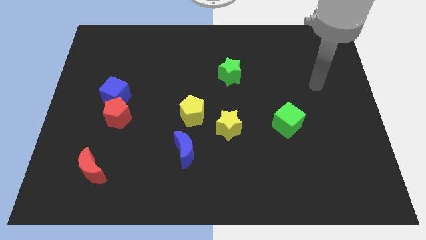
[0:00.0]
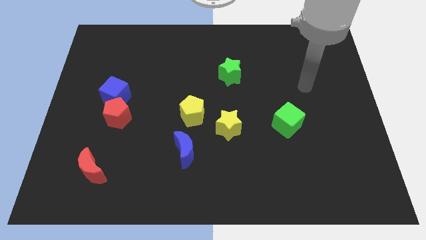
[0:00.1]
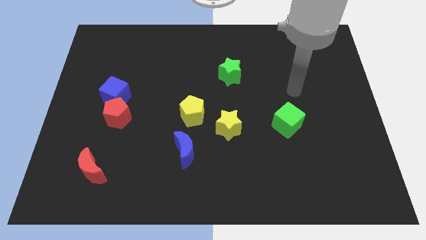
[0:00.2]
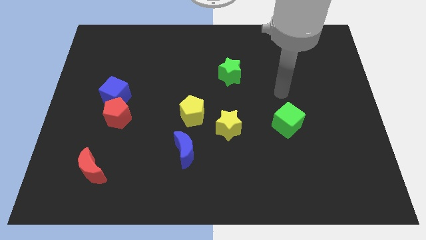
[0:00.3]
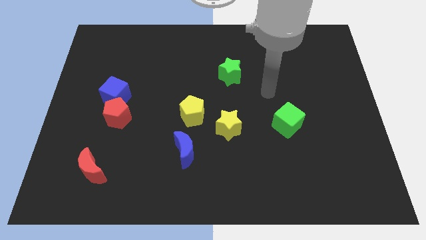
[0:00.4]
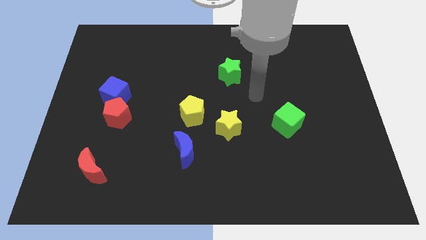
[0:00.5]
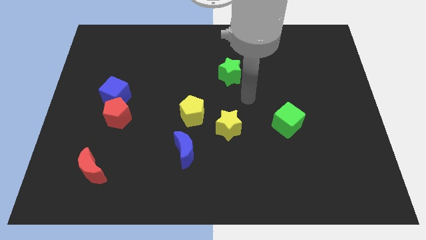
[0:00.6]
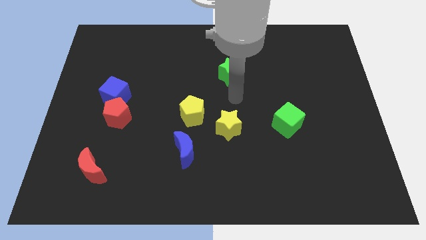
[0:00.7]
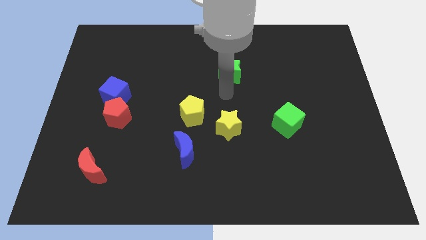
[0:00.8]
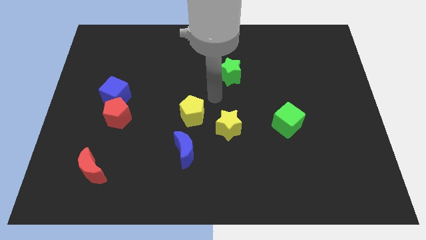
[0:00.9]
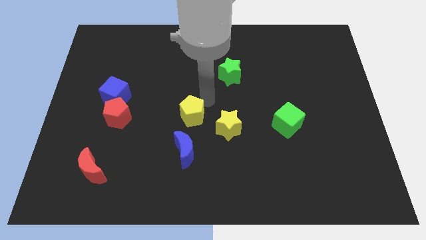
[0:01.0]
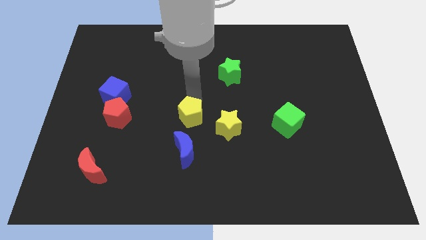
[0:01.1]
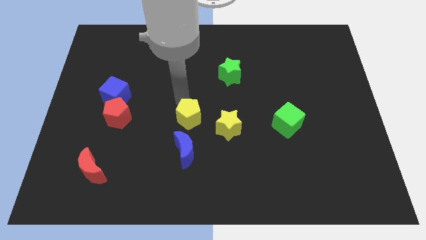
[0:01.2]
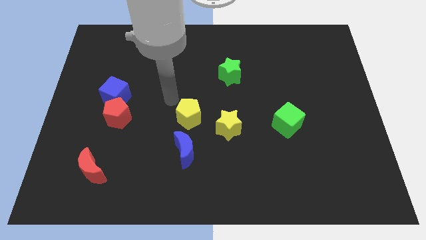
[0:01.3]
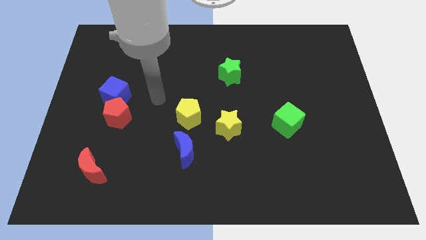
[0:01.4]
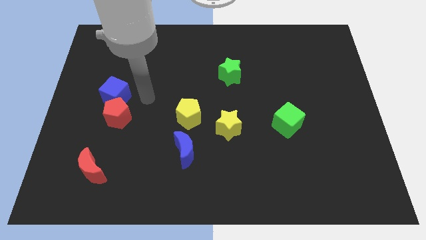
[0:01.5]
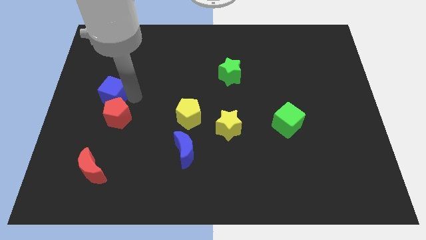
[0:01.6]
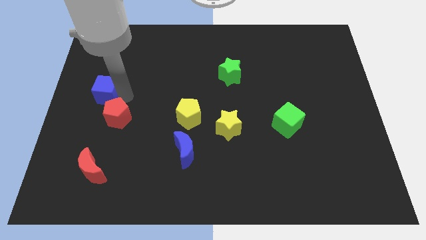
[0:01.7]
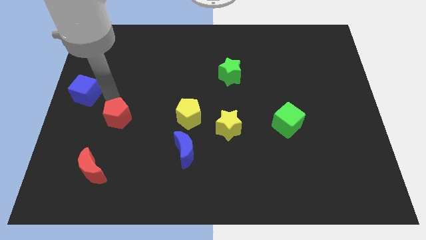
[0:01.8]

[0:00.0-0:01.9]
pull the red pentagon apart from the blue cube

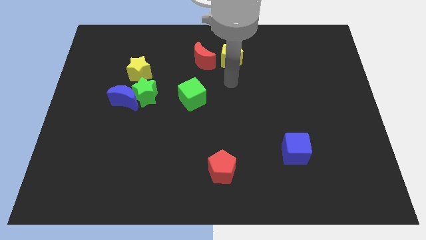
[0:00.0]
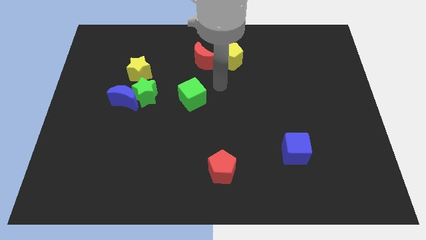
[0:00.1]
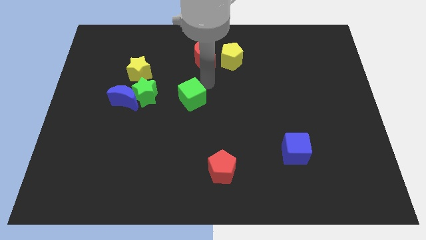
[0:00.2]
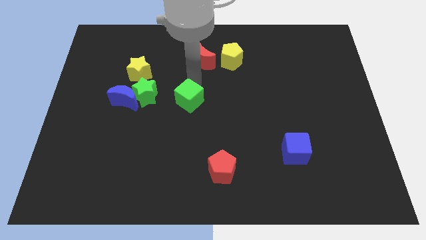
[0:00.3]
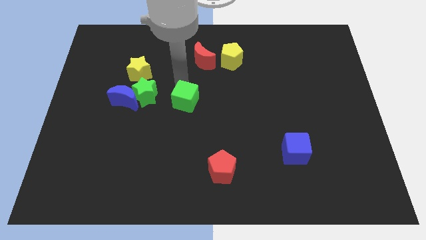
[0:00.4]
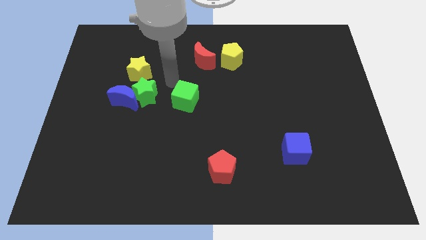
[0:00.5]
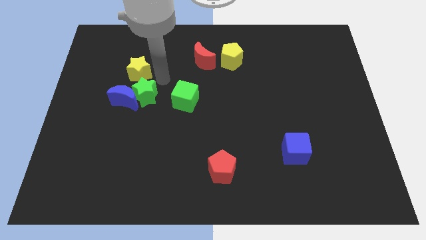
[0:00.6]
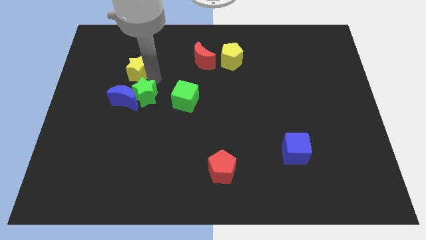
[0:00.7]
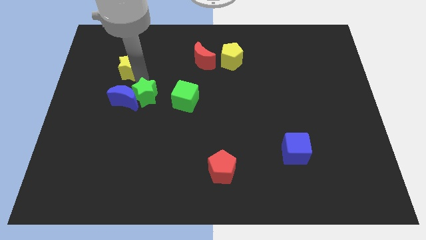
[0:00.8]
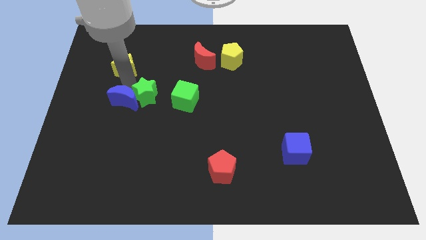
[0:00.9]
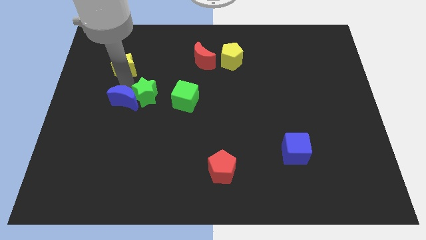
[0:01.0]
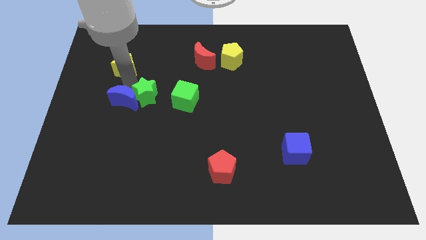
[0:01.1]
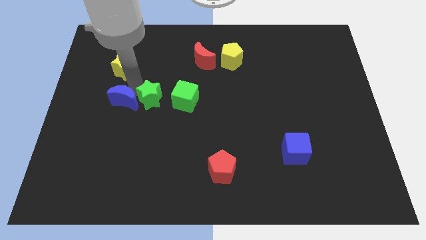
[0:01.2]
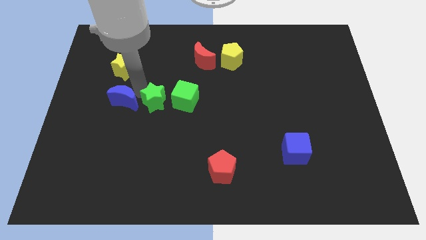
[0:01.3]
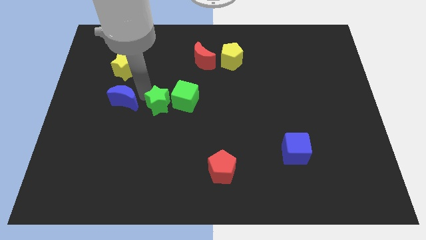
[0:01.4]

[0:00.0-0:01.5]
separate the green star from the blue moon and yellow star

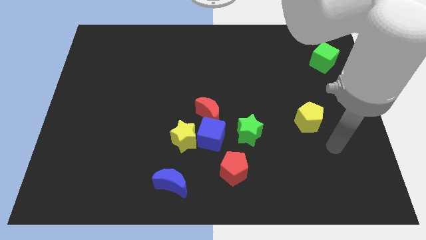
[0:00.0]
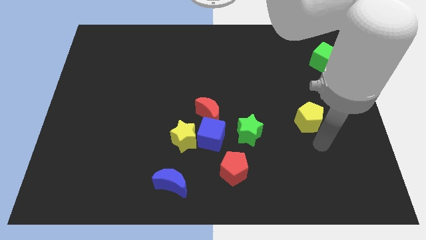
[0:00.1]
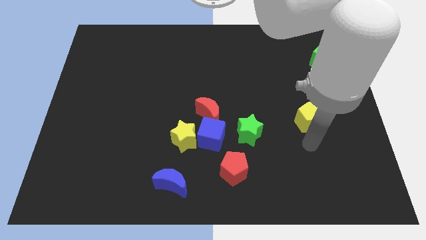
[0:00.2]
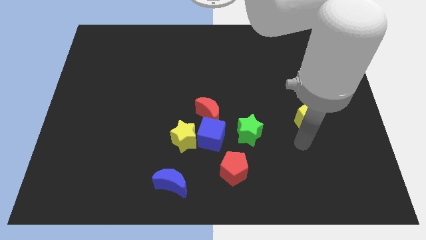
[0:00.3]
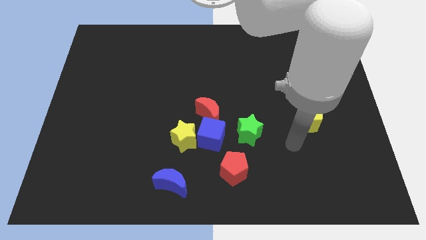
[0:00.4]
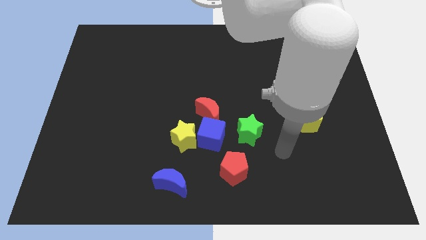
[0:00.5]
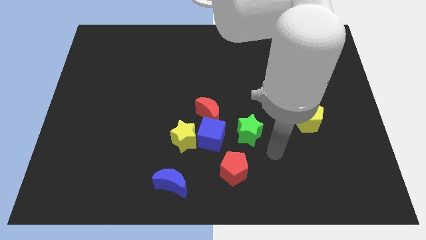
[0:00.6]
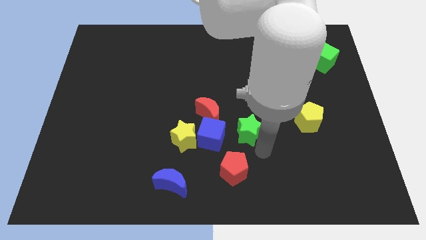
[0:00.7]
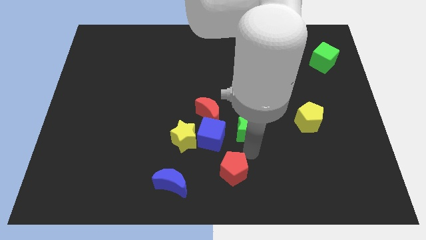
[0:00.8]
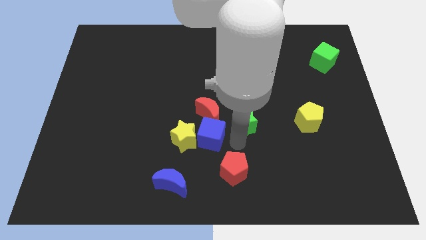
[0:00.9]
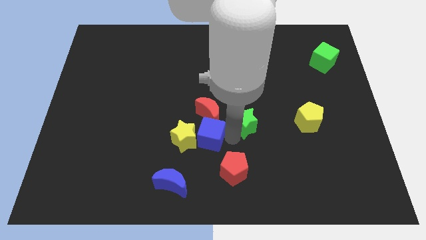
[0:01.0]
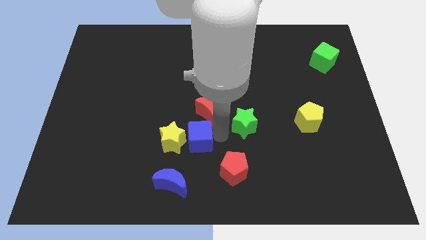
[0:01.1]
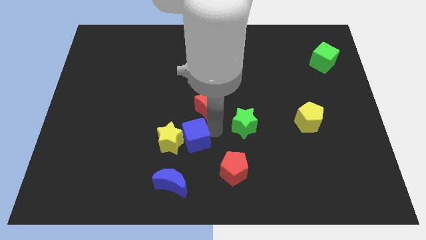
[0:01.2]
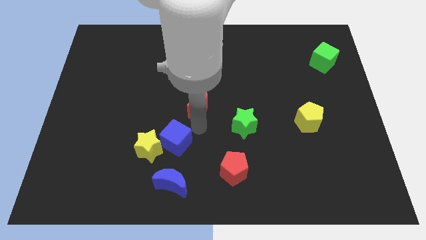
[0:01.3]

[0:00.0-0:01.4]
pull the yellow star apart from the blue cube and red moon

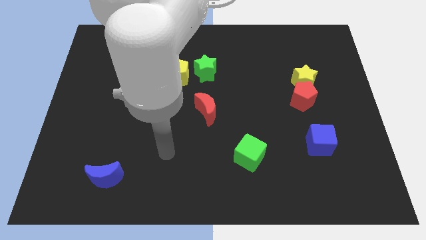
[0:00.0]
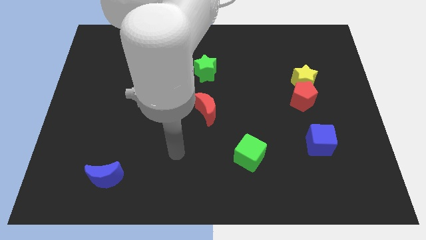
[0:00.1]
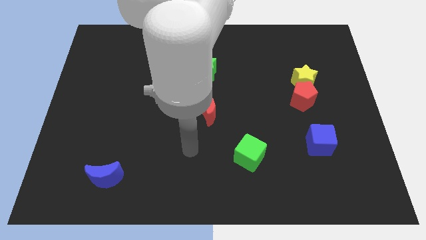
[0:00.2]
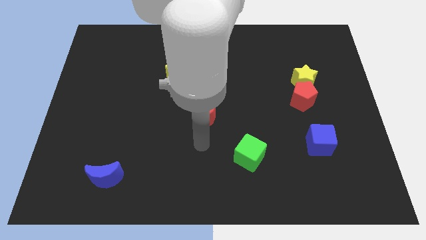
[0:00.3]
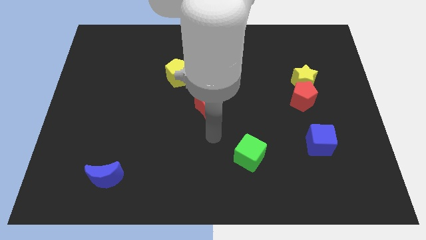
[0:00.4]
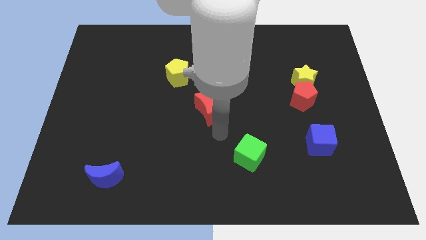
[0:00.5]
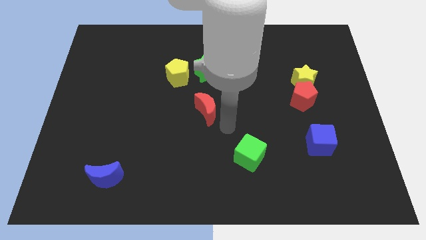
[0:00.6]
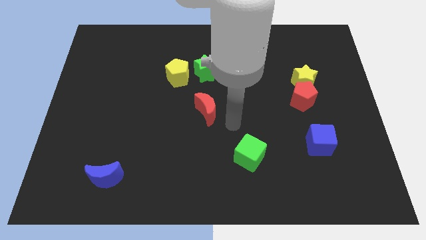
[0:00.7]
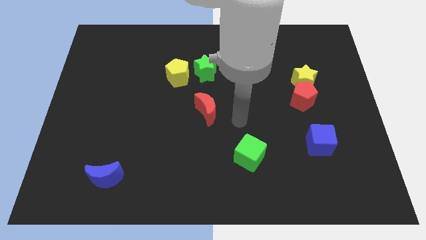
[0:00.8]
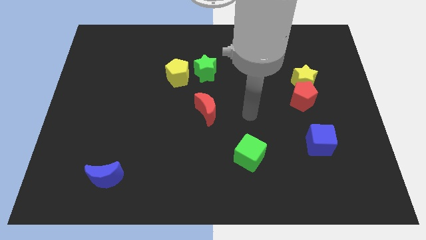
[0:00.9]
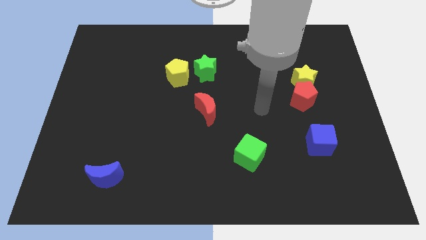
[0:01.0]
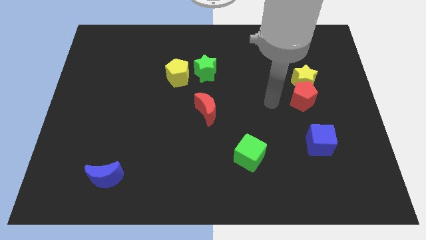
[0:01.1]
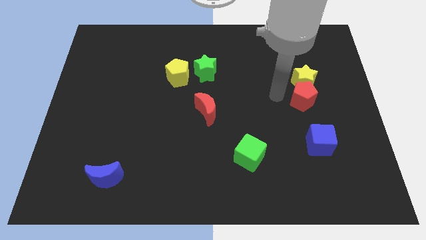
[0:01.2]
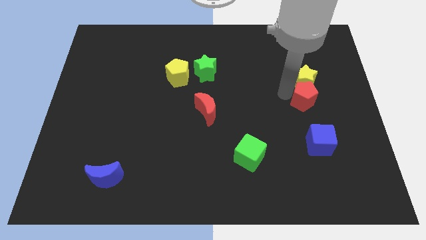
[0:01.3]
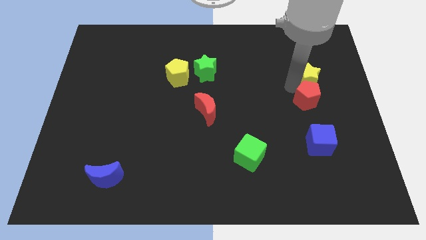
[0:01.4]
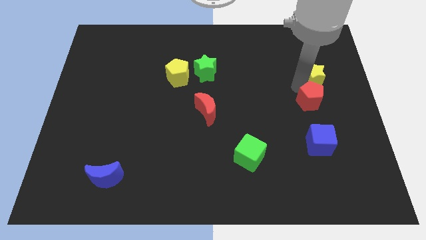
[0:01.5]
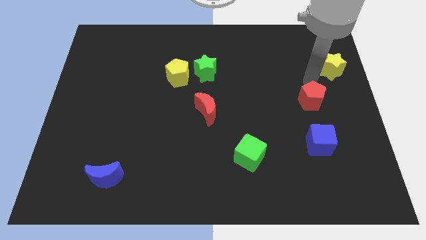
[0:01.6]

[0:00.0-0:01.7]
separate the red pentagon from the yellow star

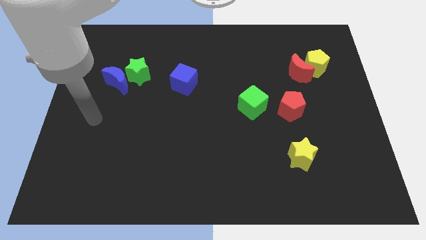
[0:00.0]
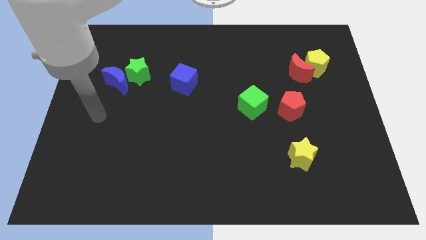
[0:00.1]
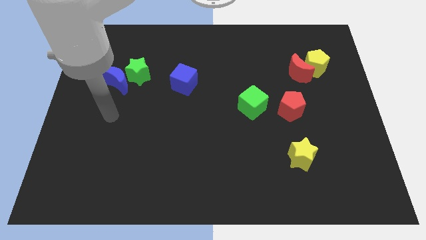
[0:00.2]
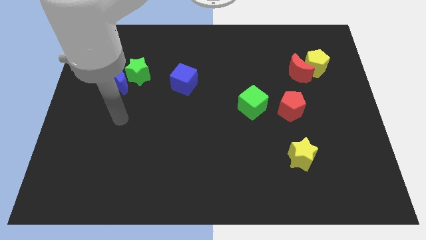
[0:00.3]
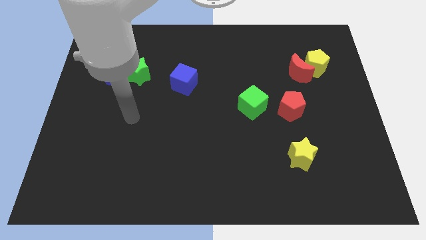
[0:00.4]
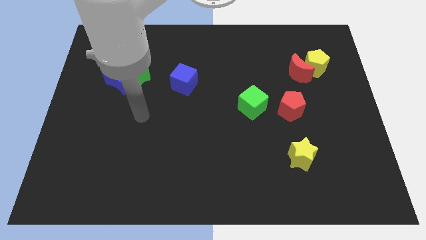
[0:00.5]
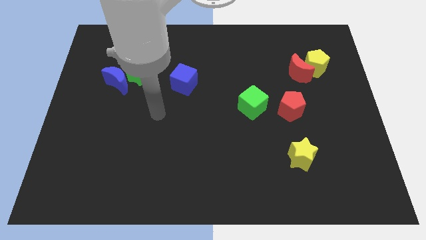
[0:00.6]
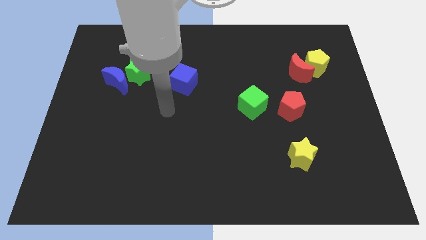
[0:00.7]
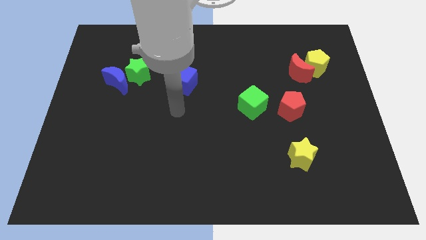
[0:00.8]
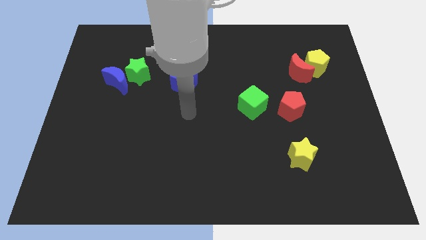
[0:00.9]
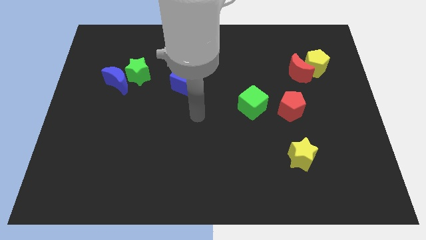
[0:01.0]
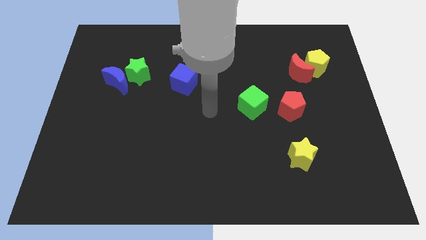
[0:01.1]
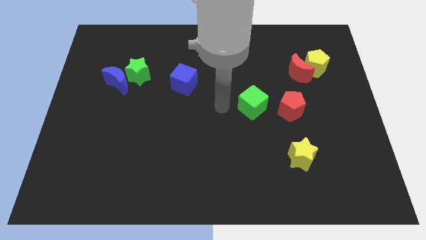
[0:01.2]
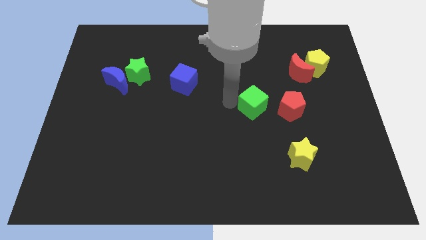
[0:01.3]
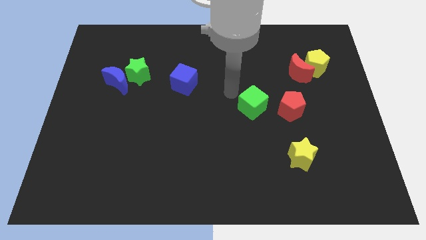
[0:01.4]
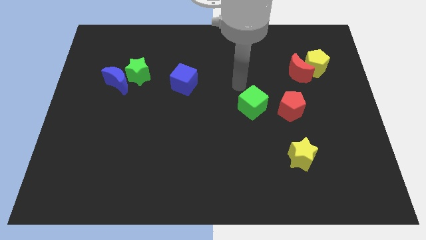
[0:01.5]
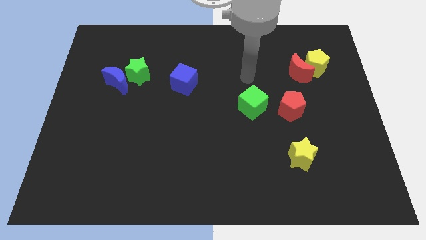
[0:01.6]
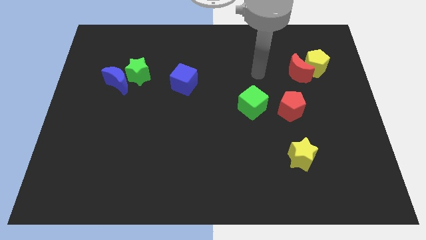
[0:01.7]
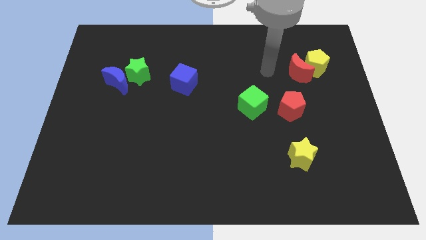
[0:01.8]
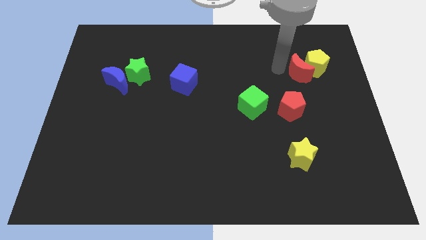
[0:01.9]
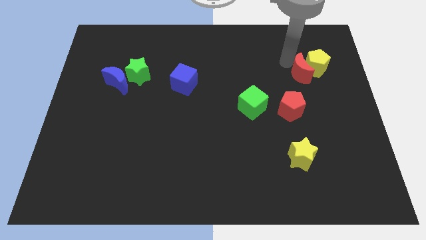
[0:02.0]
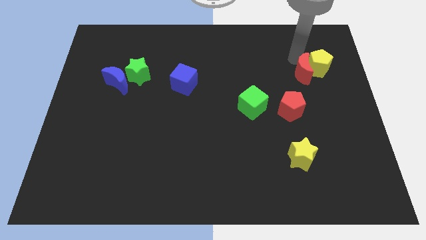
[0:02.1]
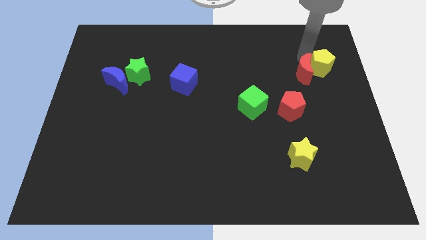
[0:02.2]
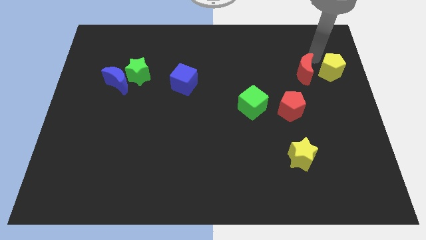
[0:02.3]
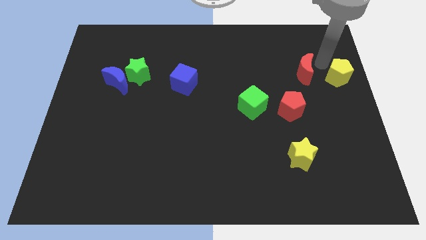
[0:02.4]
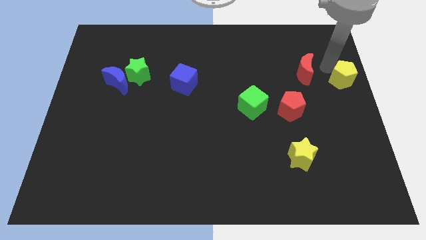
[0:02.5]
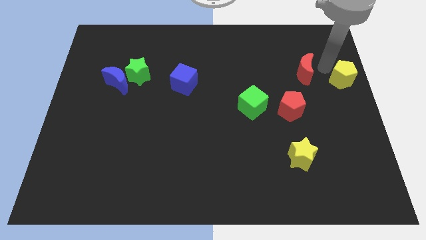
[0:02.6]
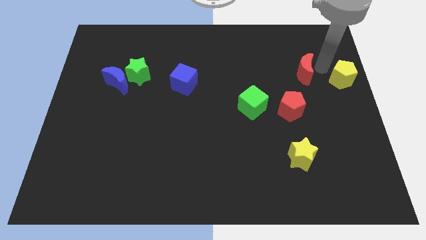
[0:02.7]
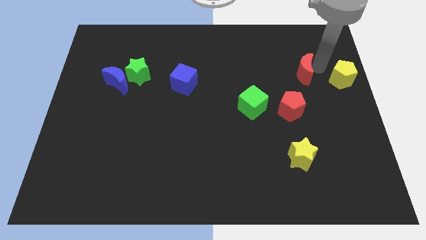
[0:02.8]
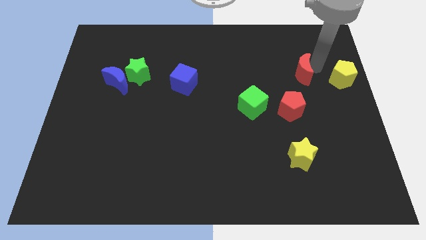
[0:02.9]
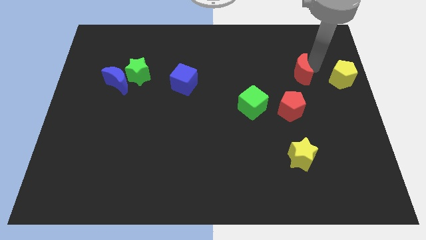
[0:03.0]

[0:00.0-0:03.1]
pull the red moon apart from the yellow pentagon
